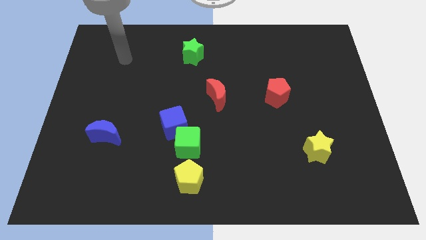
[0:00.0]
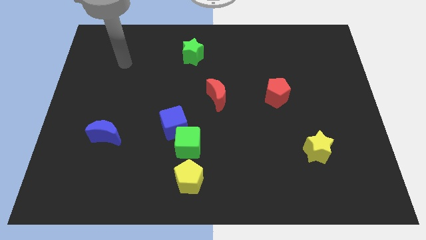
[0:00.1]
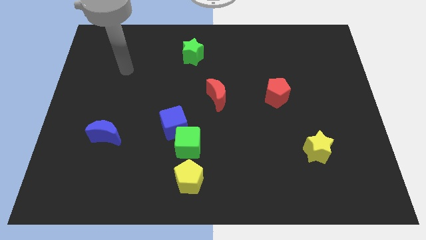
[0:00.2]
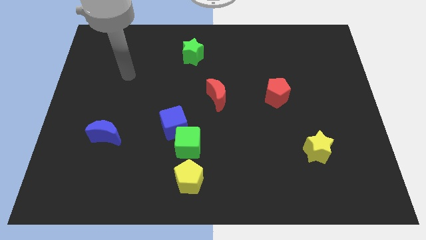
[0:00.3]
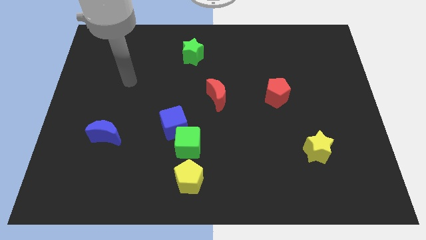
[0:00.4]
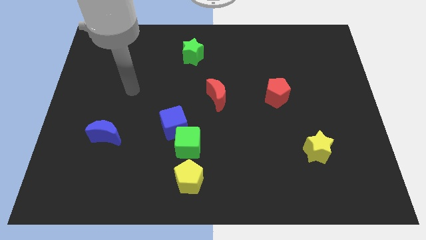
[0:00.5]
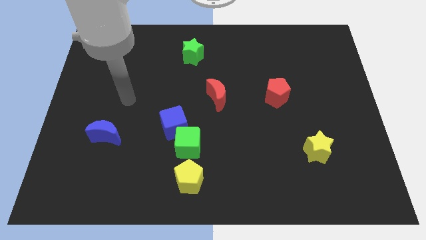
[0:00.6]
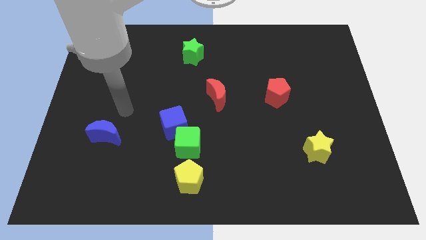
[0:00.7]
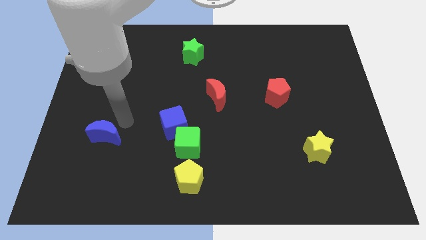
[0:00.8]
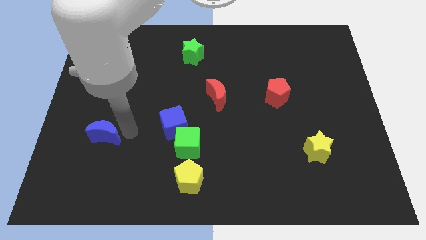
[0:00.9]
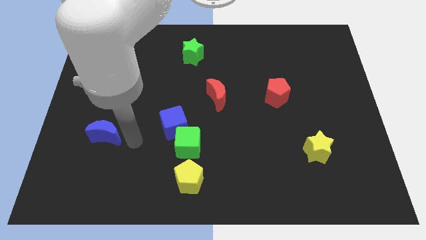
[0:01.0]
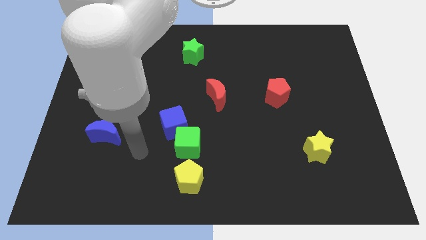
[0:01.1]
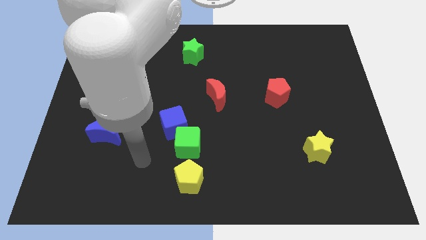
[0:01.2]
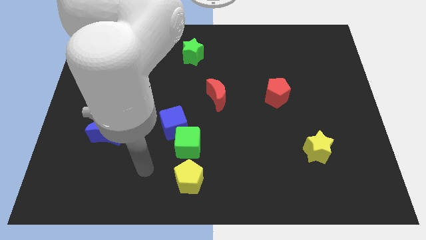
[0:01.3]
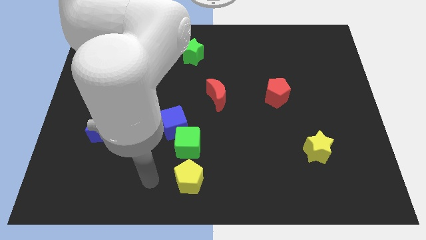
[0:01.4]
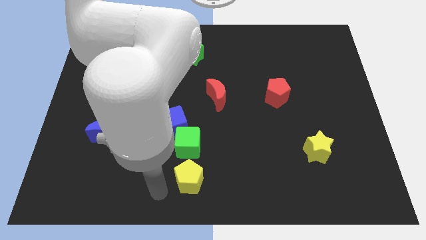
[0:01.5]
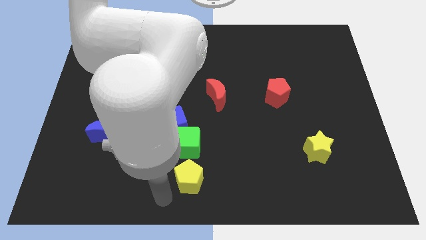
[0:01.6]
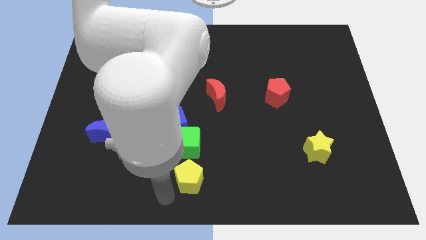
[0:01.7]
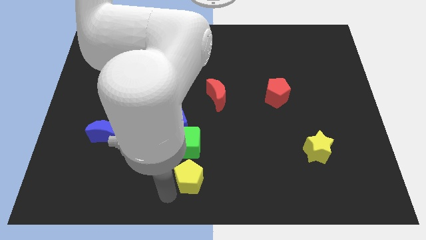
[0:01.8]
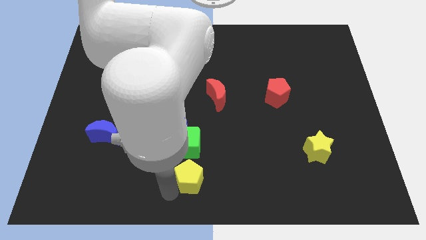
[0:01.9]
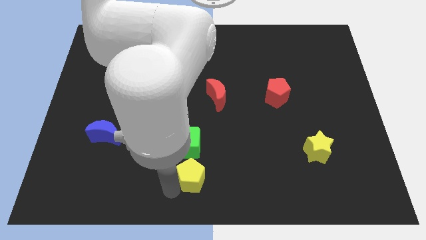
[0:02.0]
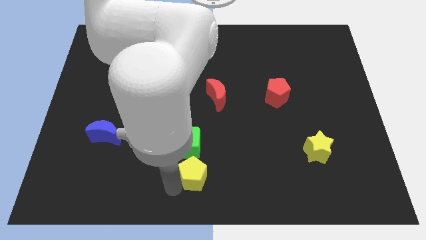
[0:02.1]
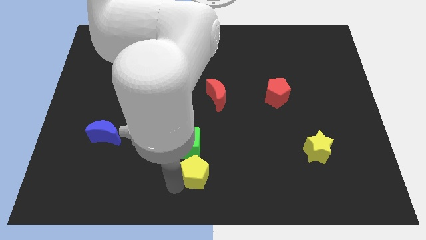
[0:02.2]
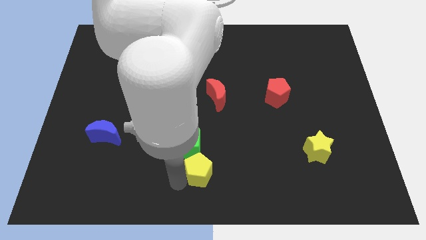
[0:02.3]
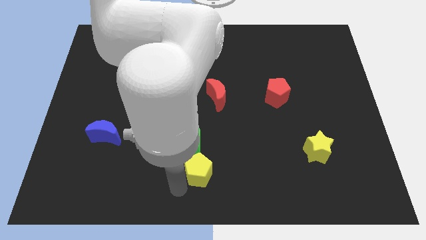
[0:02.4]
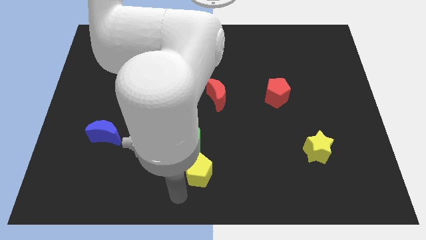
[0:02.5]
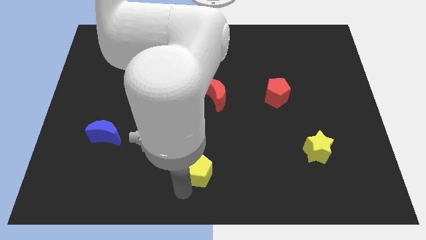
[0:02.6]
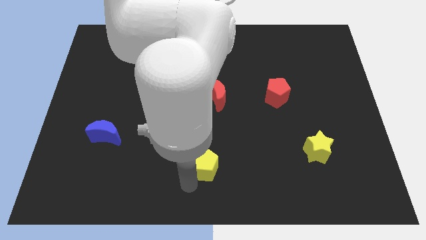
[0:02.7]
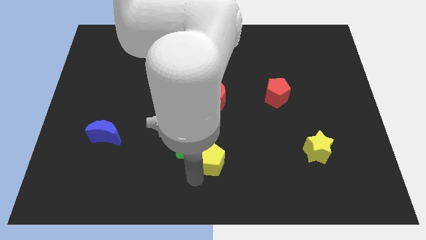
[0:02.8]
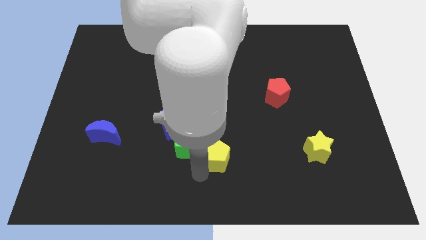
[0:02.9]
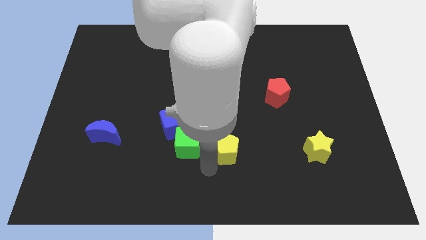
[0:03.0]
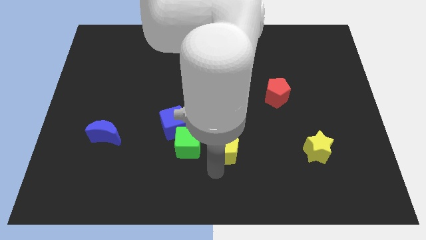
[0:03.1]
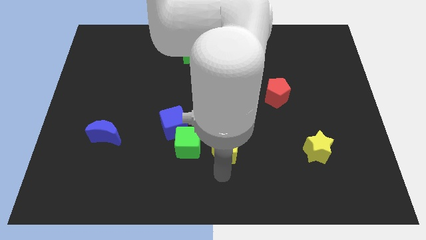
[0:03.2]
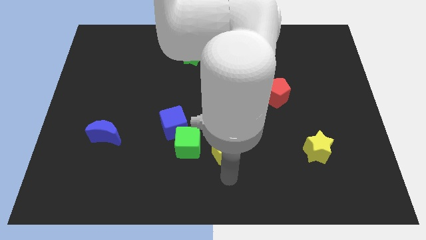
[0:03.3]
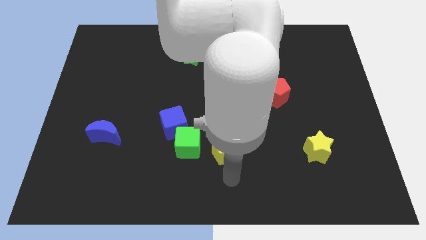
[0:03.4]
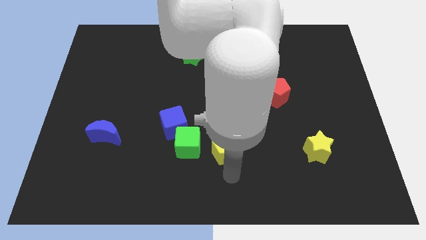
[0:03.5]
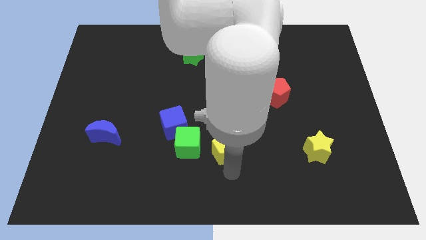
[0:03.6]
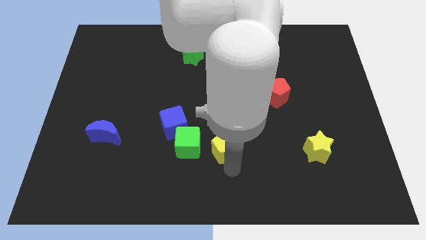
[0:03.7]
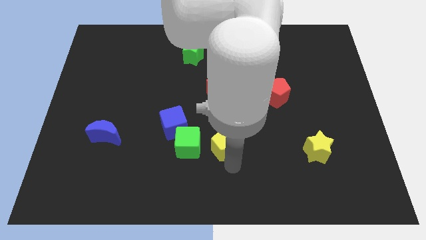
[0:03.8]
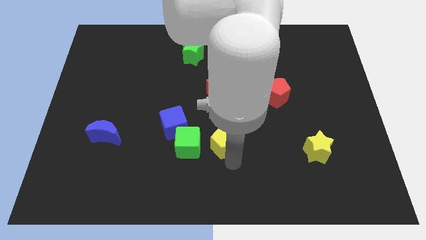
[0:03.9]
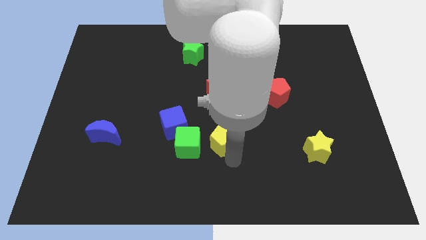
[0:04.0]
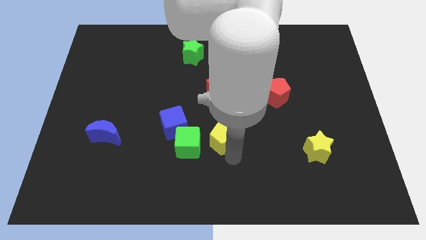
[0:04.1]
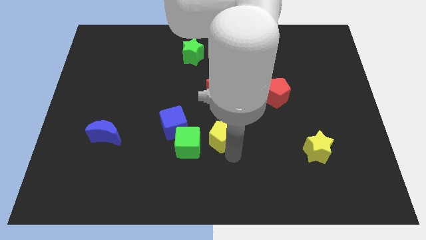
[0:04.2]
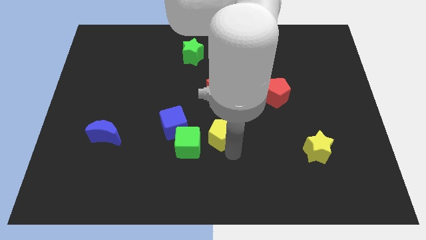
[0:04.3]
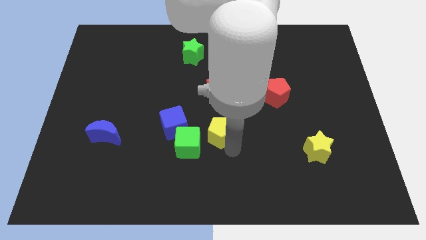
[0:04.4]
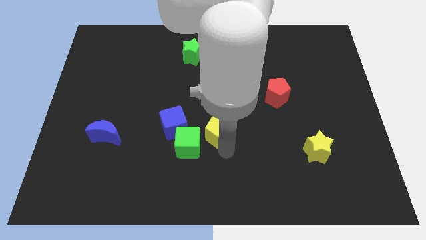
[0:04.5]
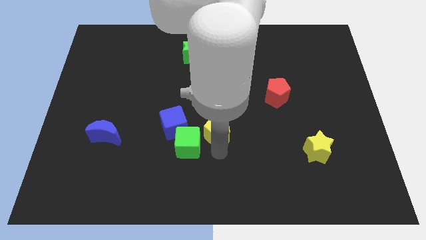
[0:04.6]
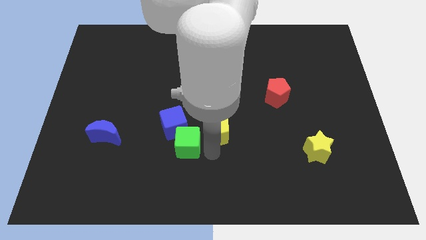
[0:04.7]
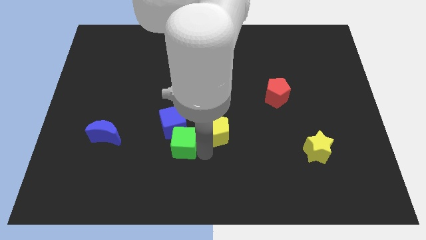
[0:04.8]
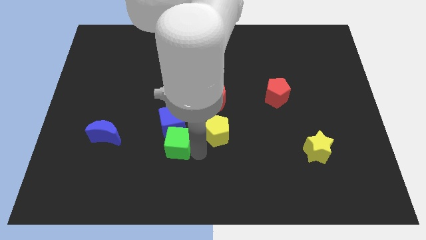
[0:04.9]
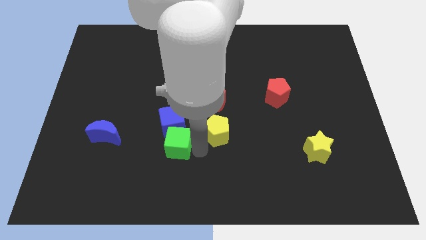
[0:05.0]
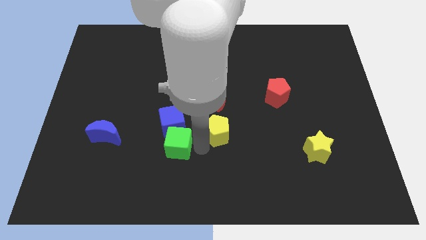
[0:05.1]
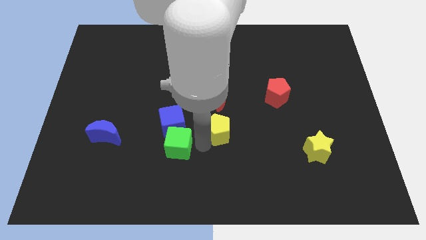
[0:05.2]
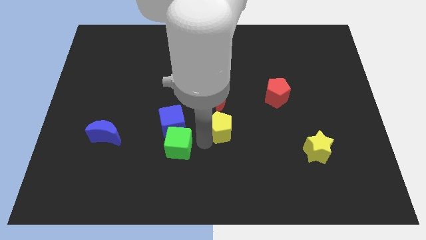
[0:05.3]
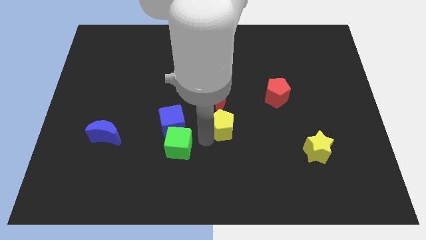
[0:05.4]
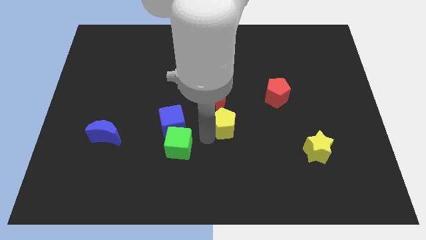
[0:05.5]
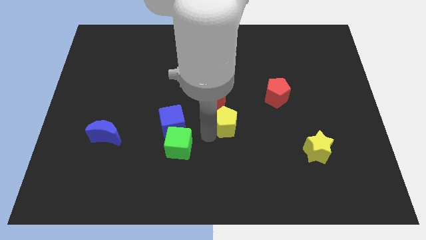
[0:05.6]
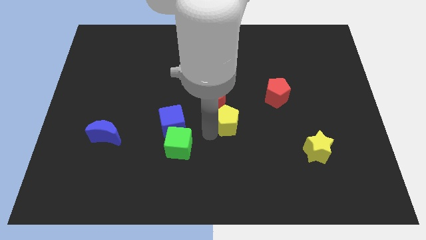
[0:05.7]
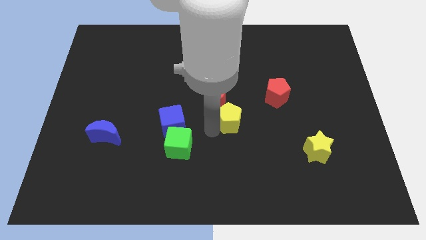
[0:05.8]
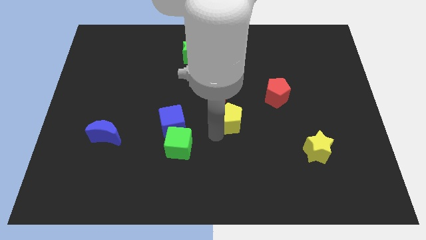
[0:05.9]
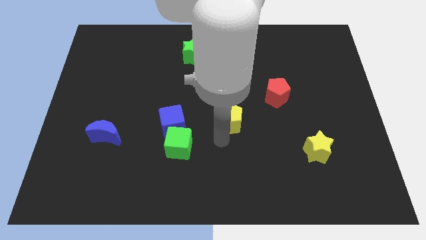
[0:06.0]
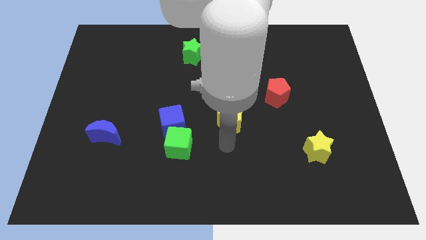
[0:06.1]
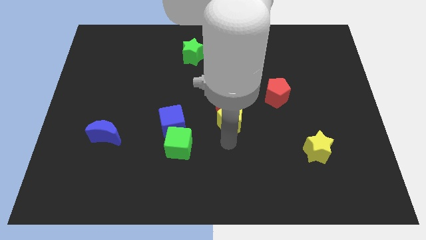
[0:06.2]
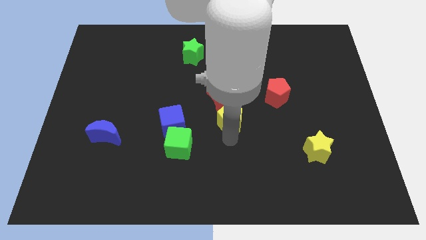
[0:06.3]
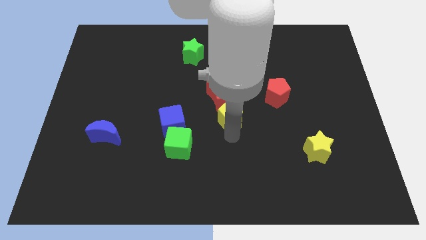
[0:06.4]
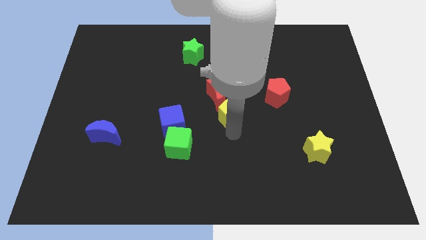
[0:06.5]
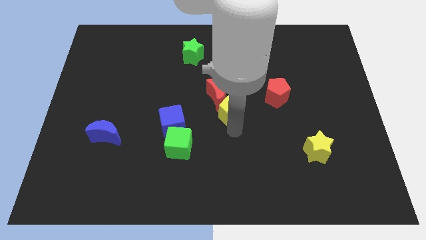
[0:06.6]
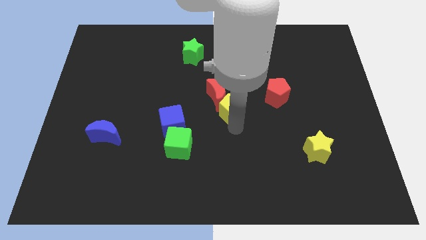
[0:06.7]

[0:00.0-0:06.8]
push the yellow pentagon left of the red pentagon
